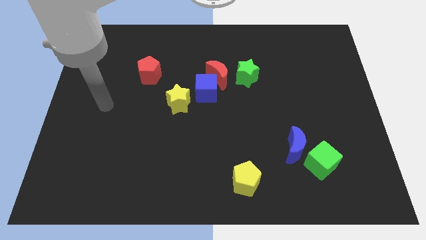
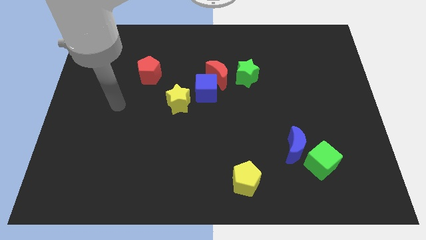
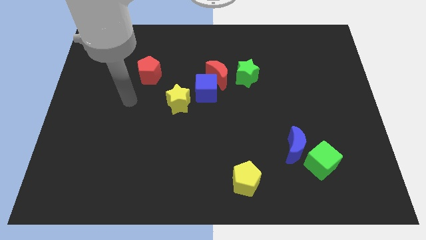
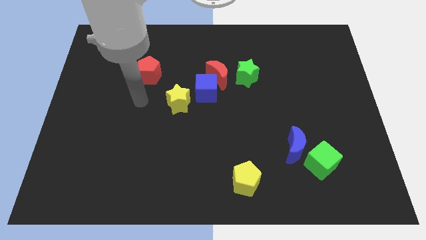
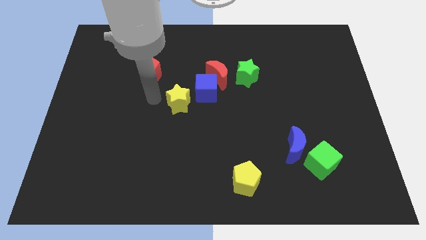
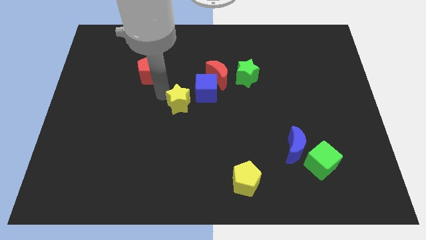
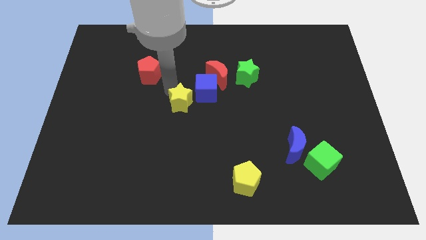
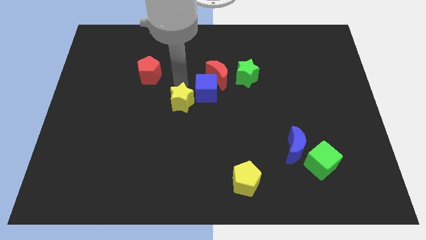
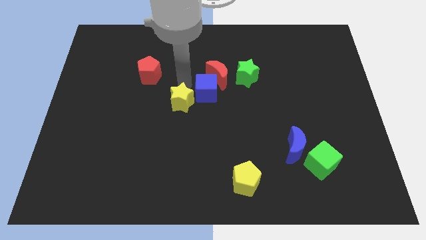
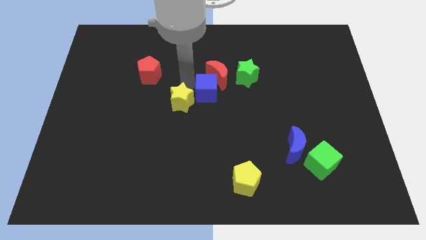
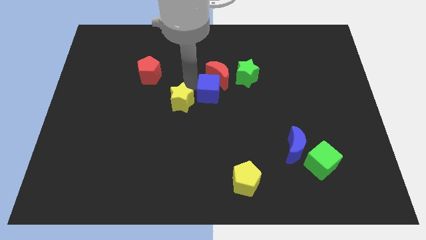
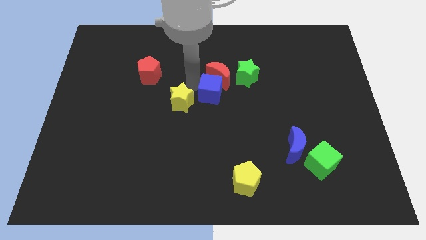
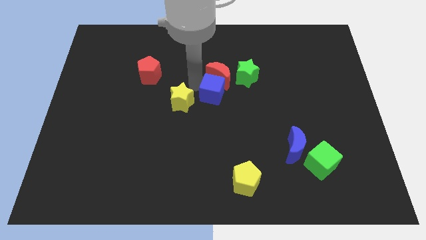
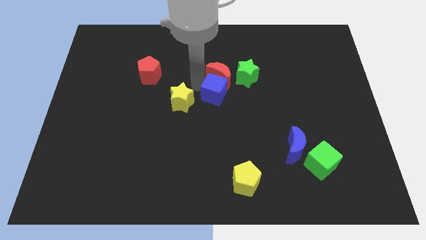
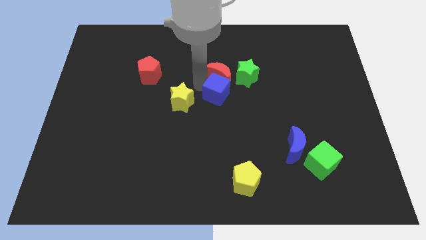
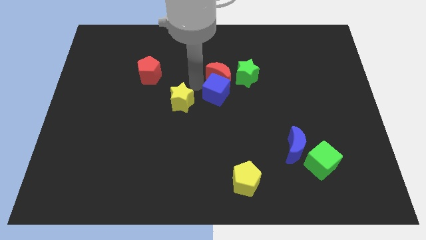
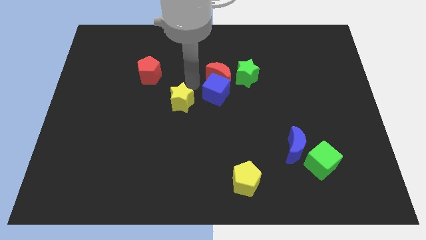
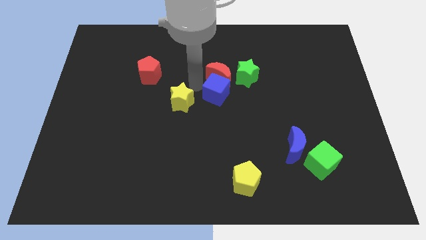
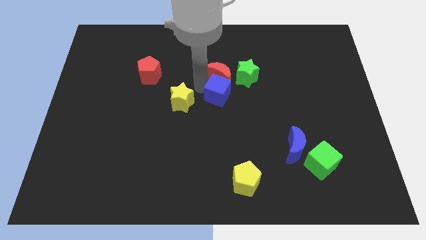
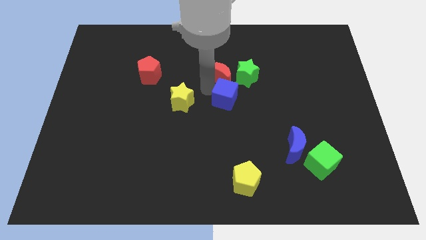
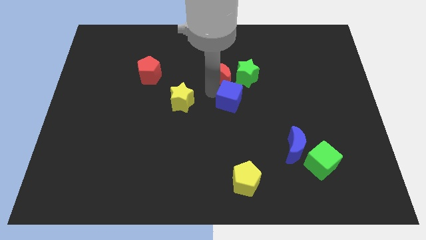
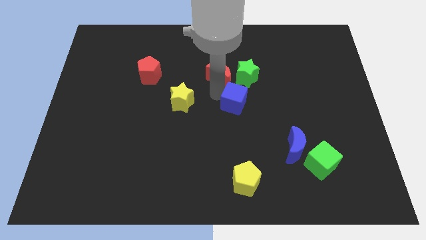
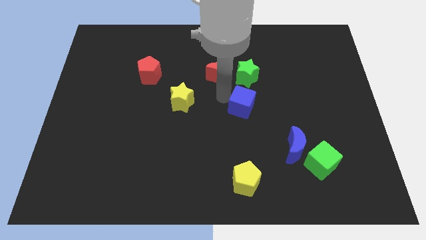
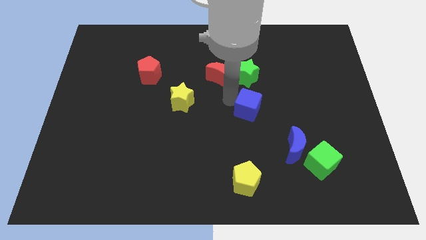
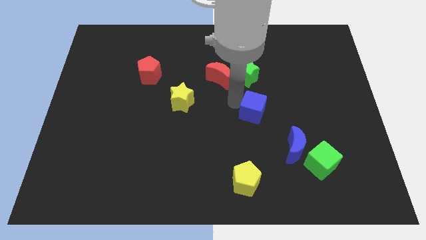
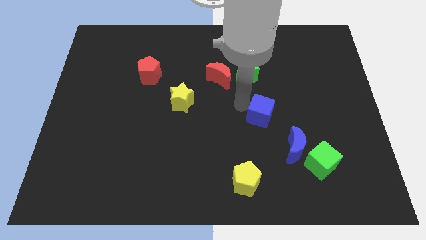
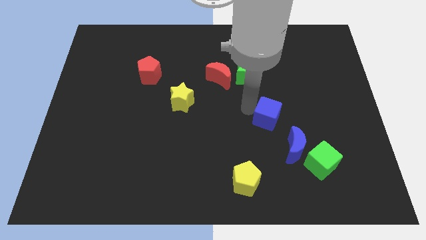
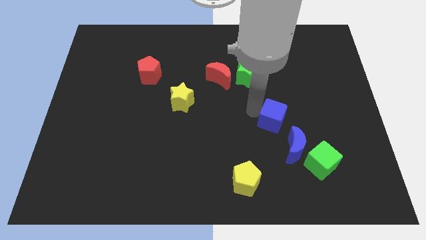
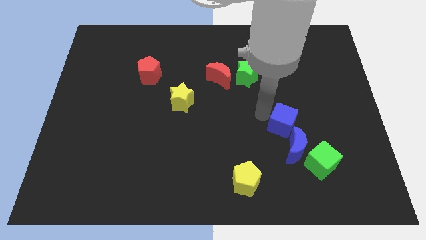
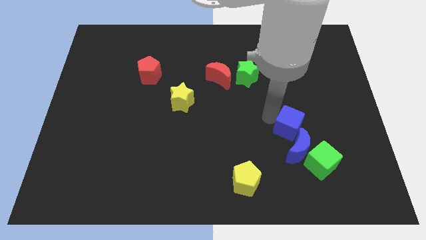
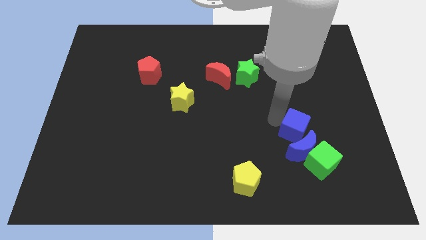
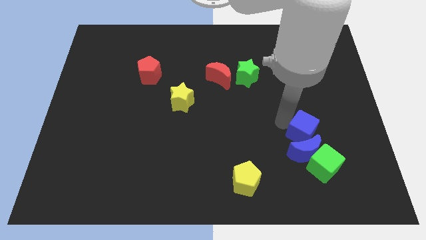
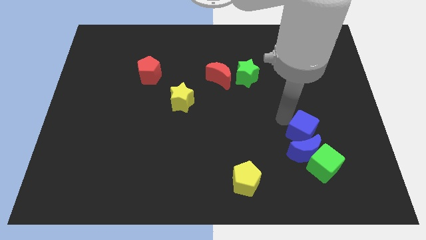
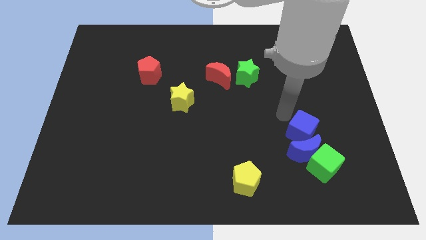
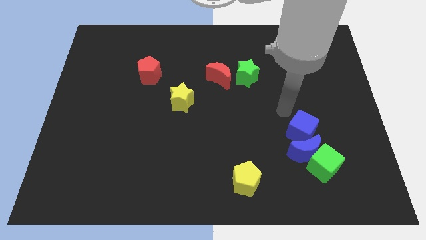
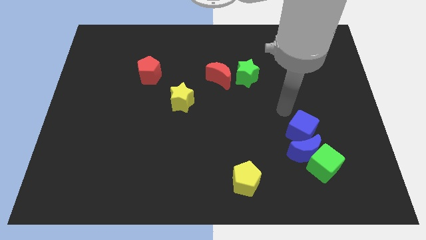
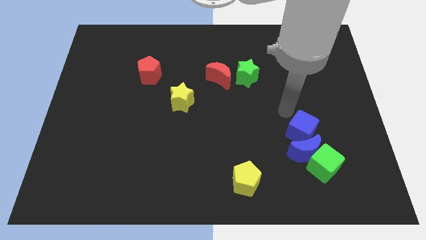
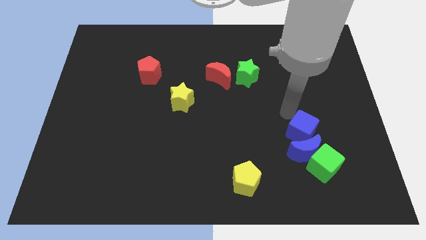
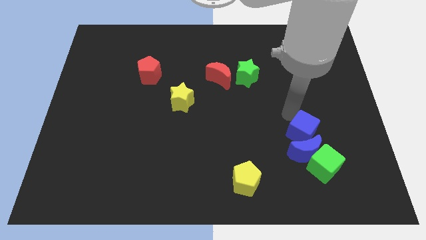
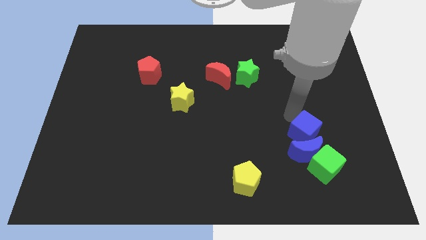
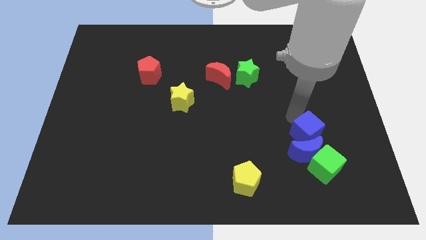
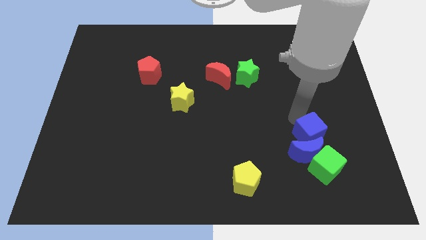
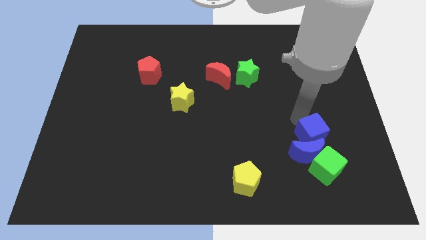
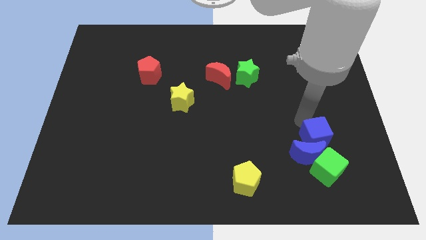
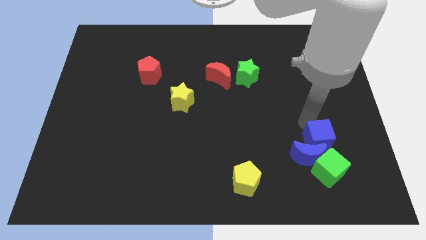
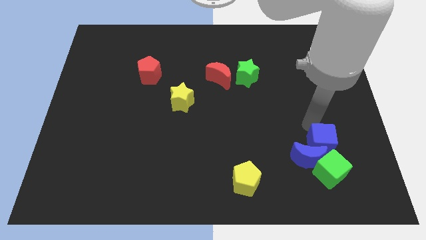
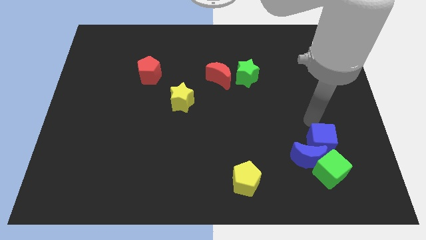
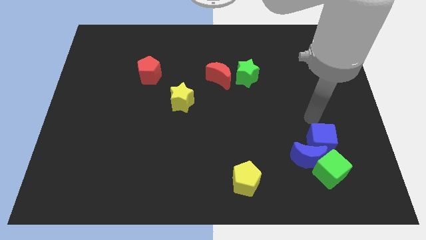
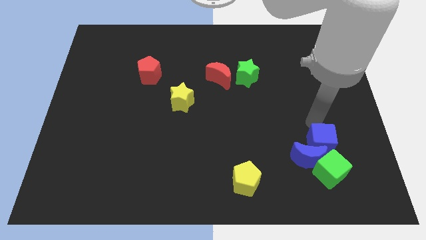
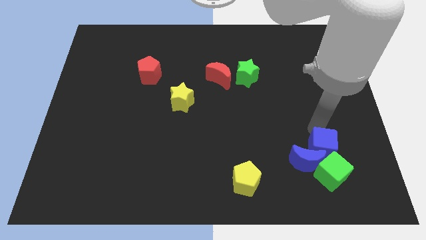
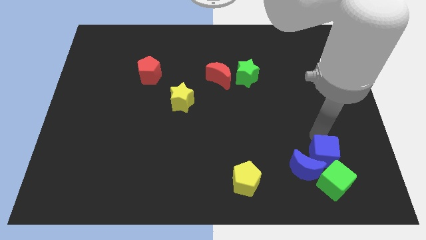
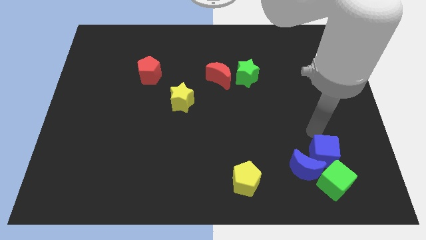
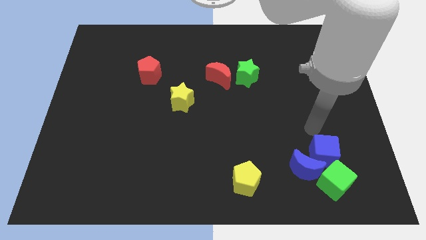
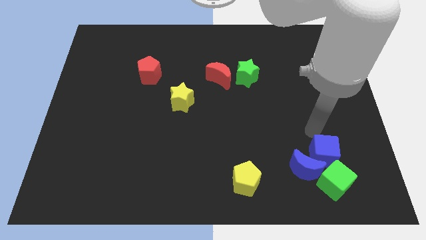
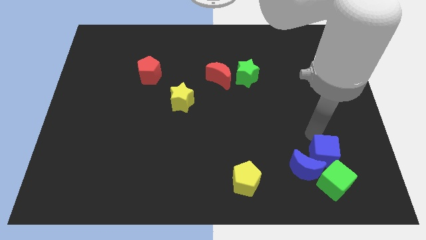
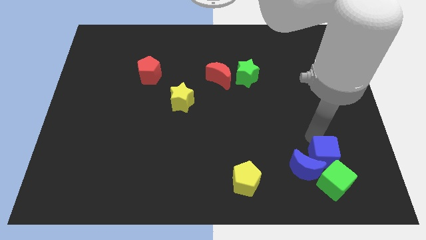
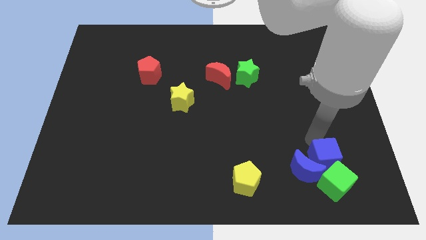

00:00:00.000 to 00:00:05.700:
push the blue cube close to the green cube

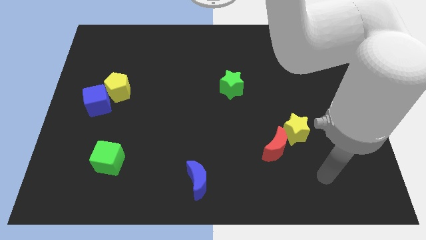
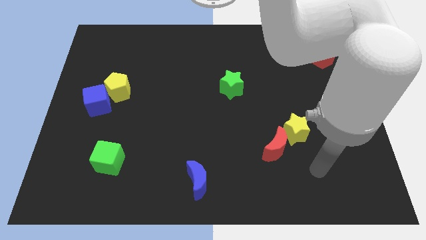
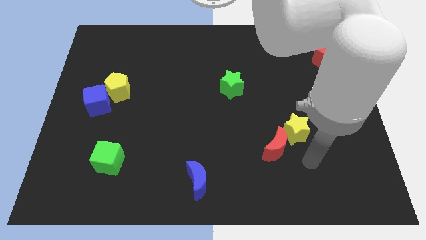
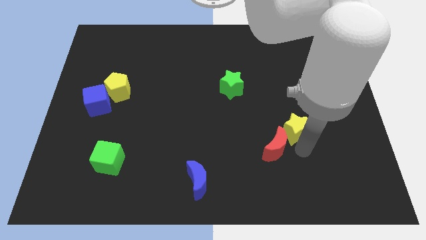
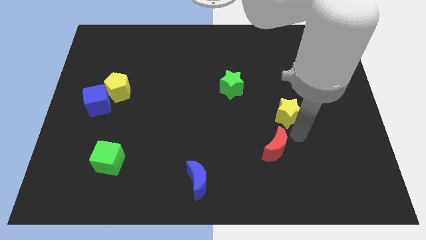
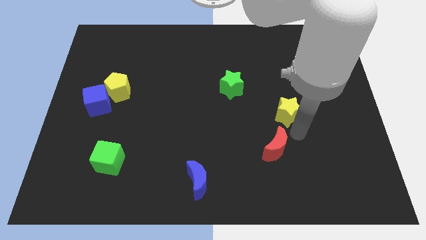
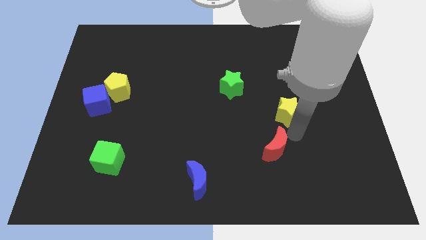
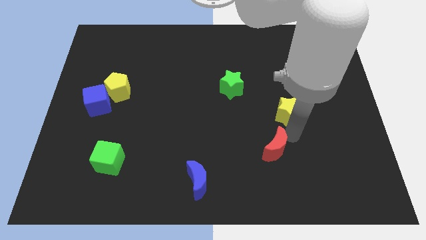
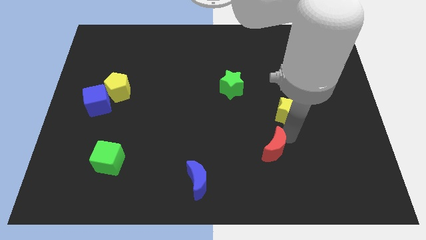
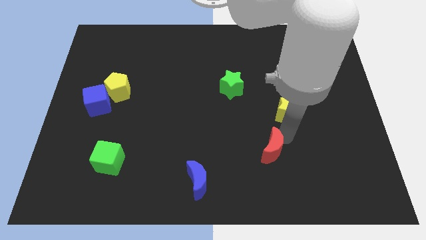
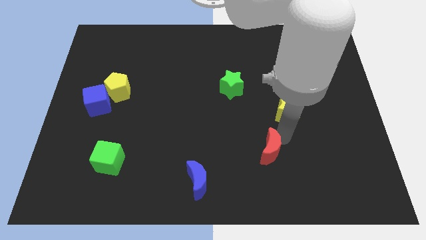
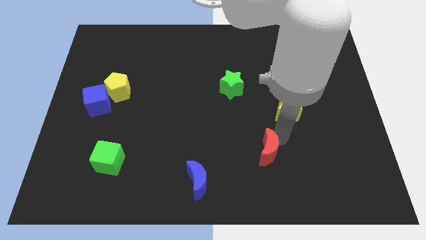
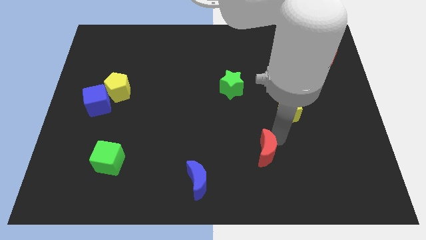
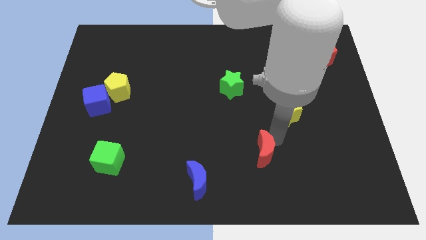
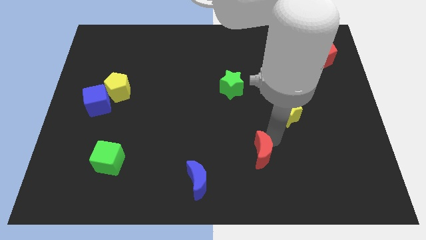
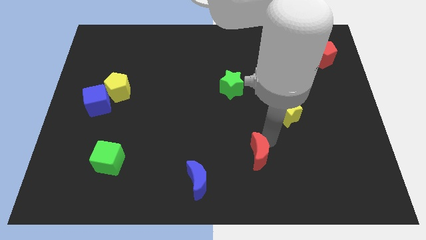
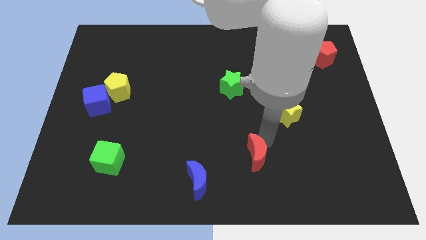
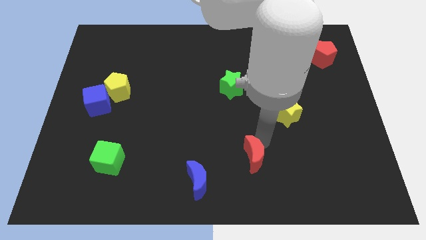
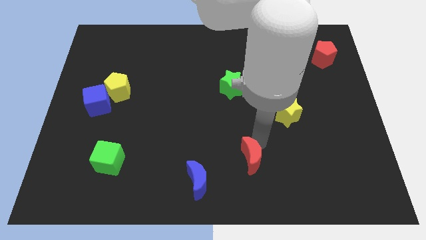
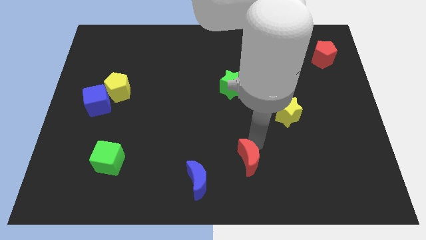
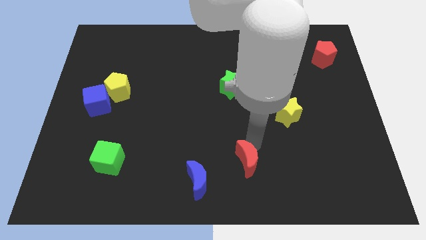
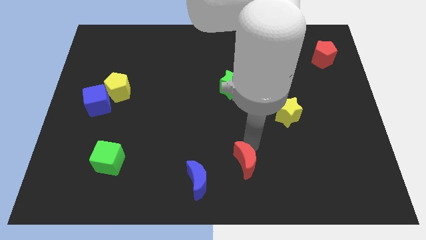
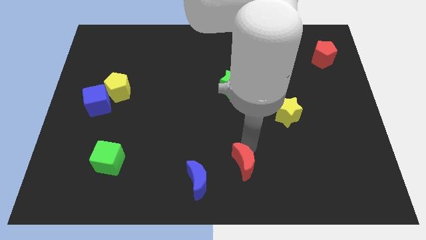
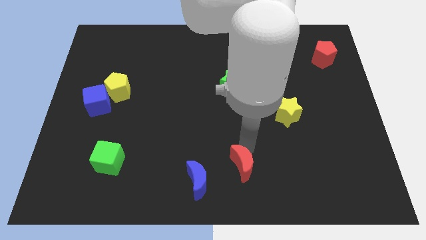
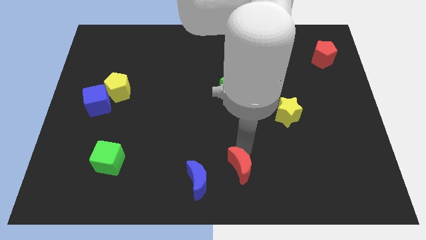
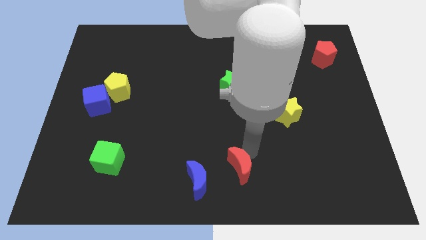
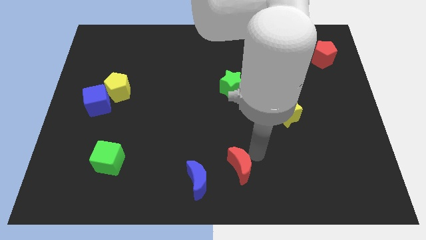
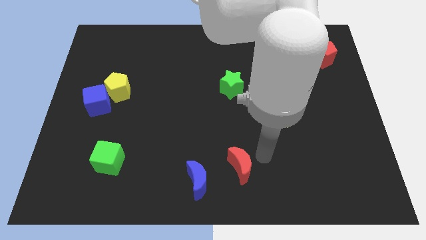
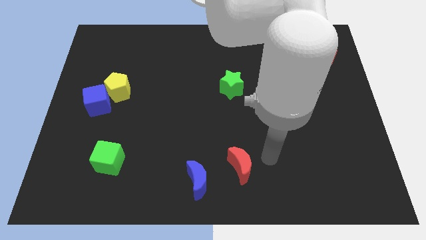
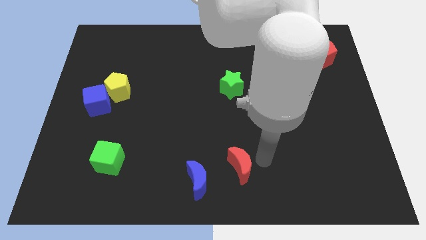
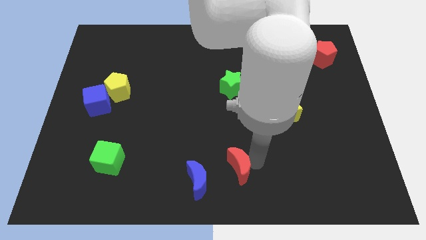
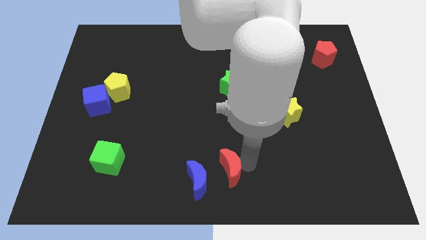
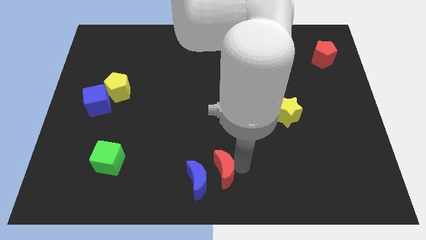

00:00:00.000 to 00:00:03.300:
put the red moon next to the blue moon
